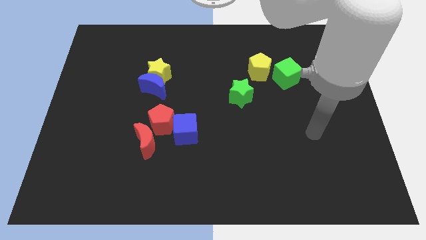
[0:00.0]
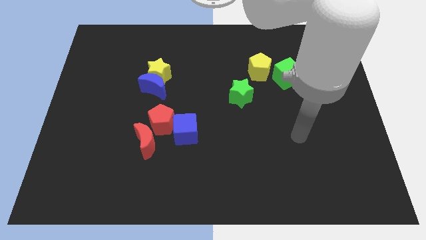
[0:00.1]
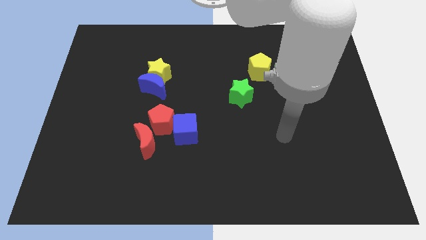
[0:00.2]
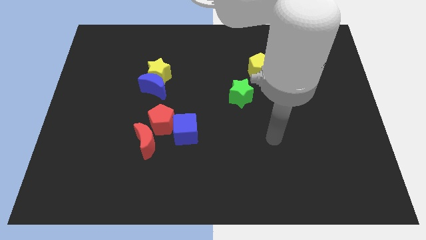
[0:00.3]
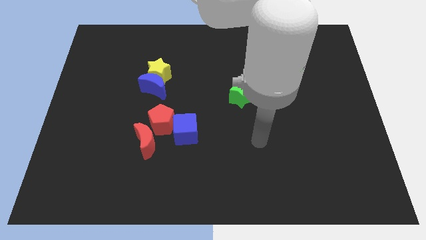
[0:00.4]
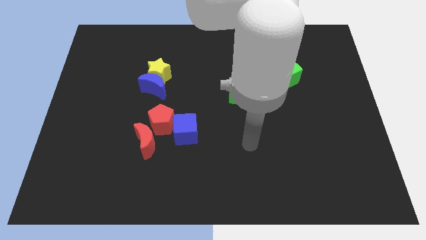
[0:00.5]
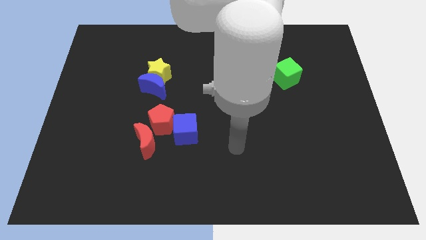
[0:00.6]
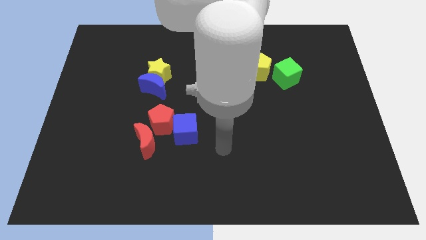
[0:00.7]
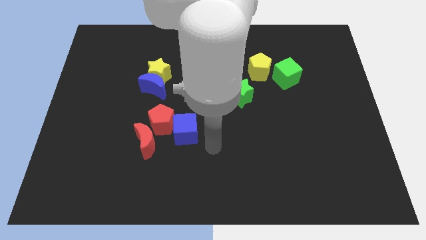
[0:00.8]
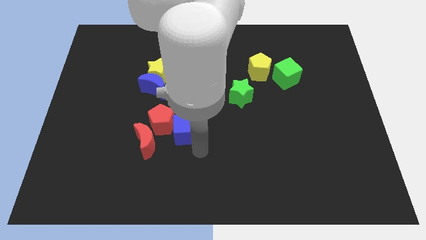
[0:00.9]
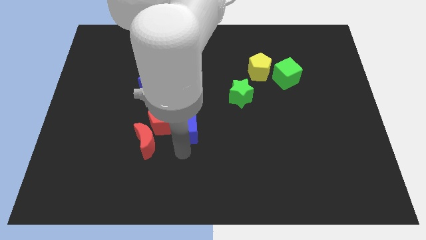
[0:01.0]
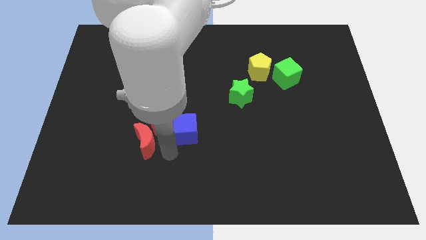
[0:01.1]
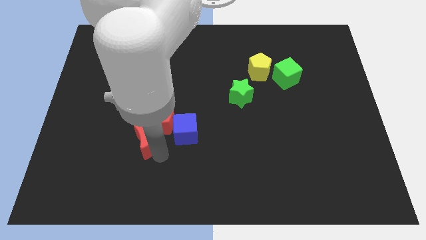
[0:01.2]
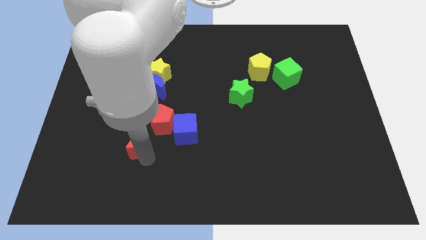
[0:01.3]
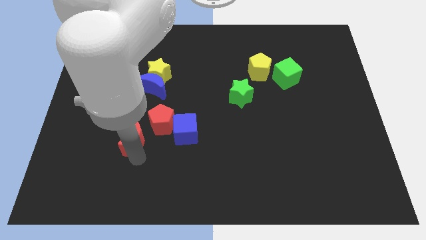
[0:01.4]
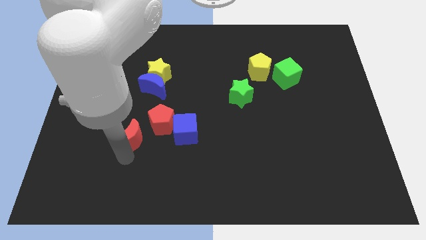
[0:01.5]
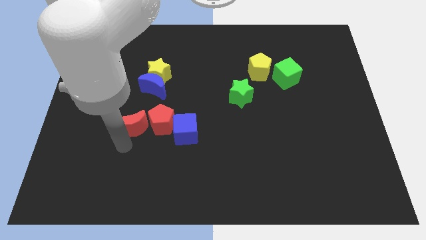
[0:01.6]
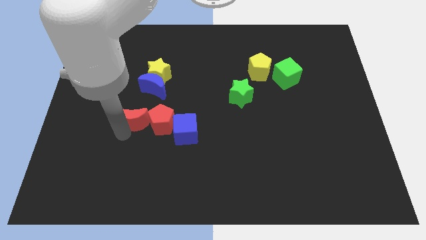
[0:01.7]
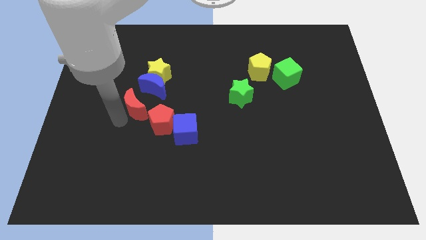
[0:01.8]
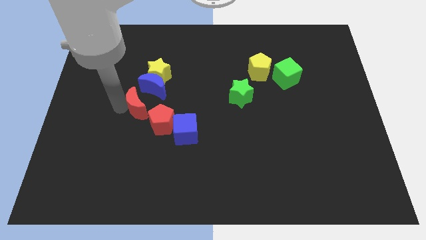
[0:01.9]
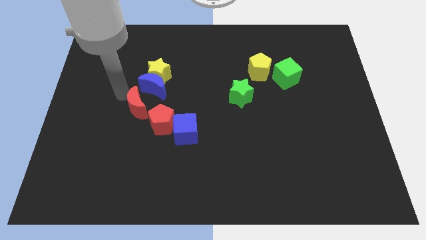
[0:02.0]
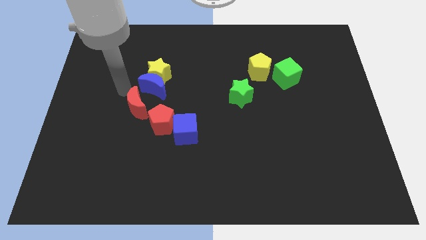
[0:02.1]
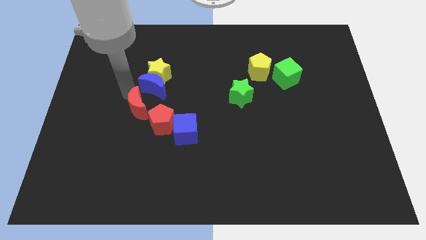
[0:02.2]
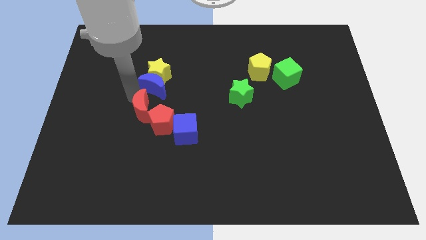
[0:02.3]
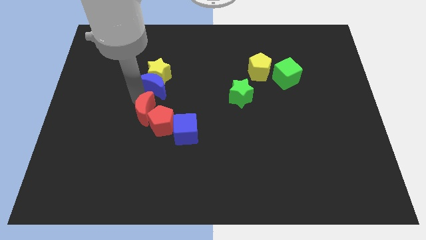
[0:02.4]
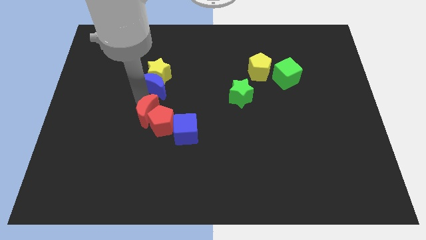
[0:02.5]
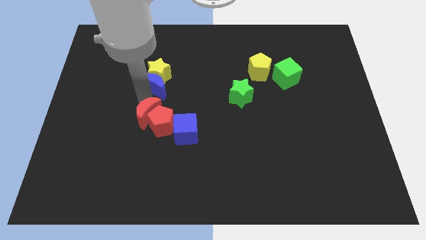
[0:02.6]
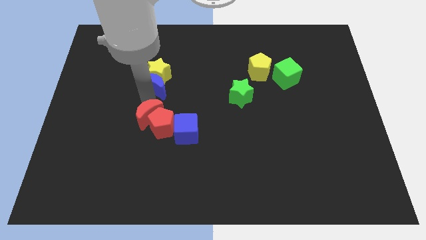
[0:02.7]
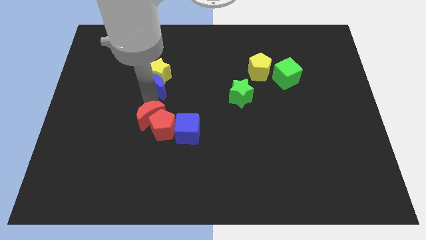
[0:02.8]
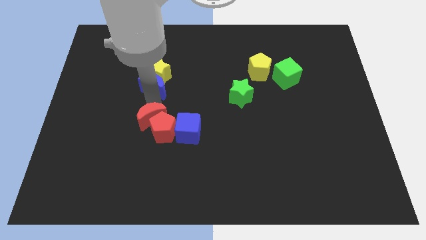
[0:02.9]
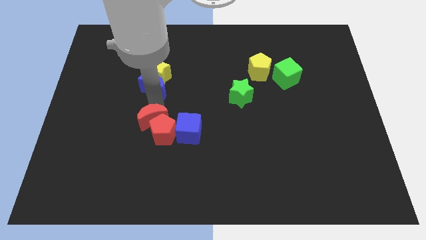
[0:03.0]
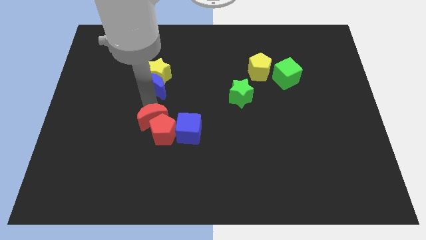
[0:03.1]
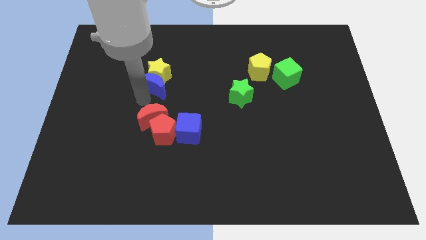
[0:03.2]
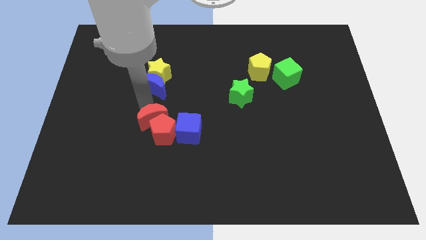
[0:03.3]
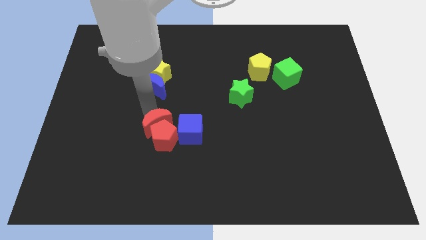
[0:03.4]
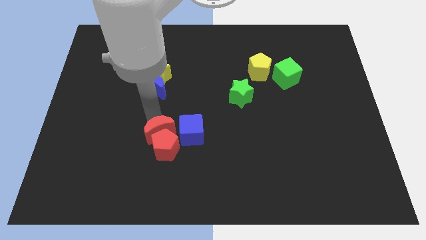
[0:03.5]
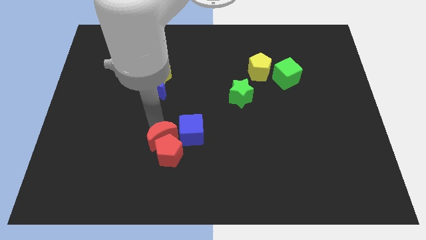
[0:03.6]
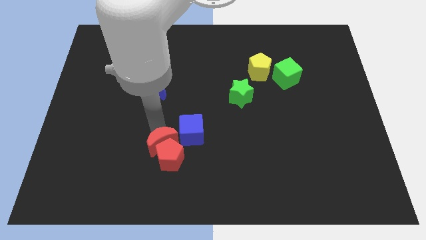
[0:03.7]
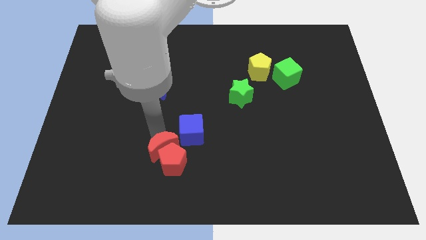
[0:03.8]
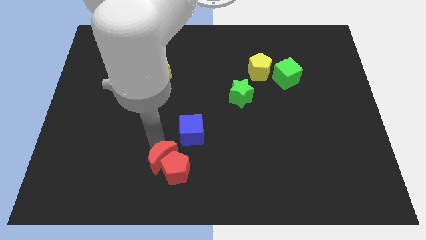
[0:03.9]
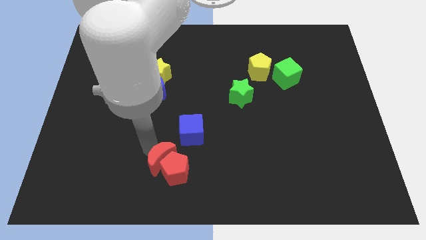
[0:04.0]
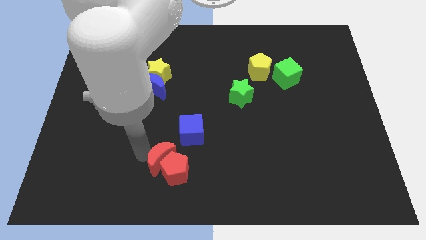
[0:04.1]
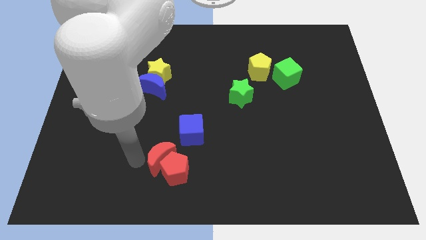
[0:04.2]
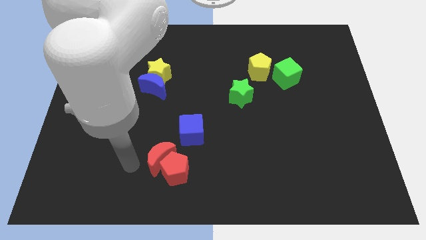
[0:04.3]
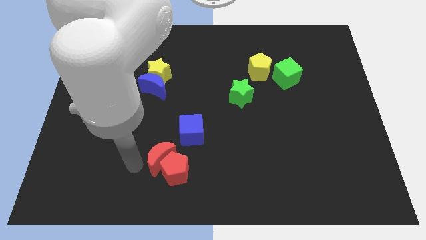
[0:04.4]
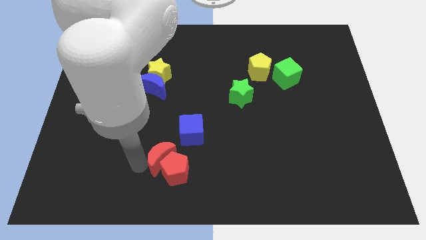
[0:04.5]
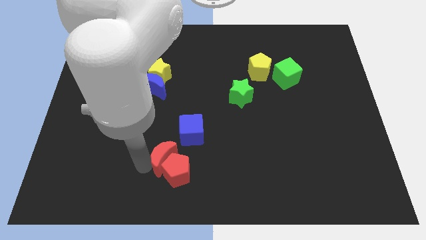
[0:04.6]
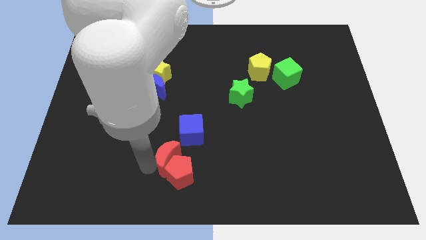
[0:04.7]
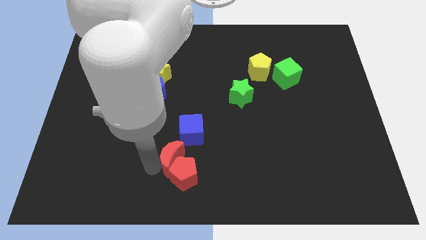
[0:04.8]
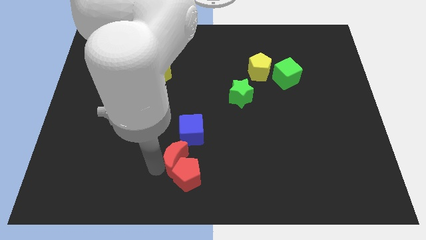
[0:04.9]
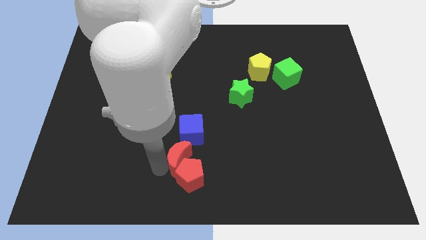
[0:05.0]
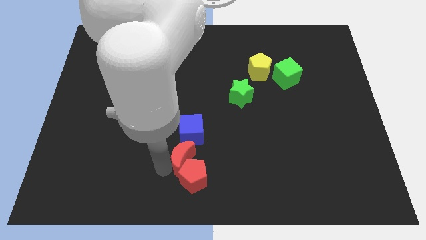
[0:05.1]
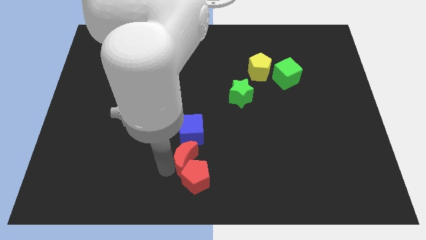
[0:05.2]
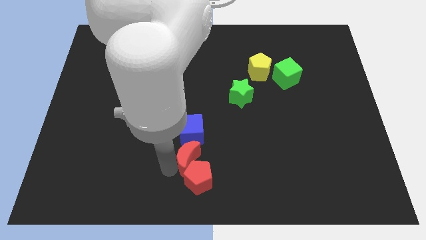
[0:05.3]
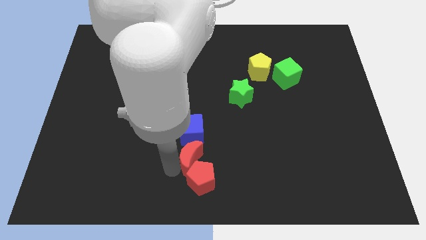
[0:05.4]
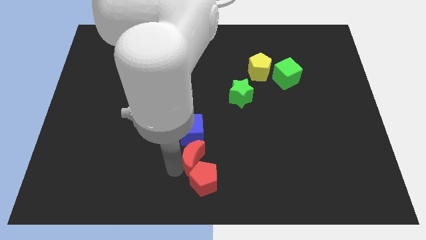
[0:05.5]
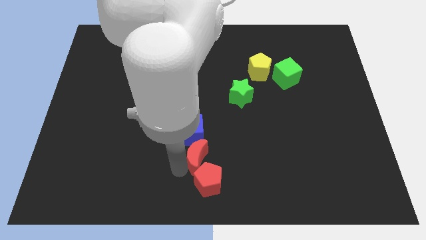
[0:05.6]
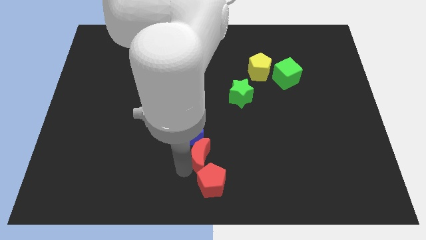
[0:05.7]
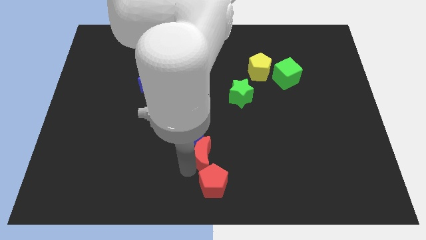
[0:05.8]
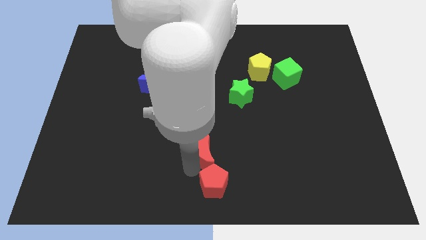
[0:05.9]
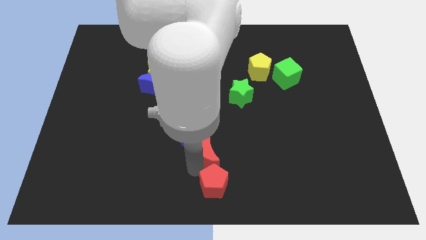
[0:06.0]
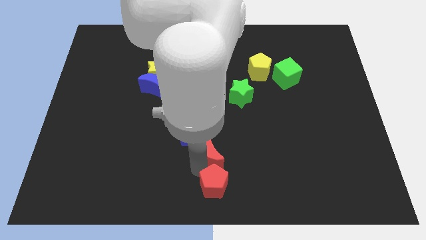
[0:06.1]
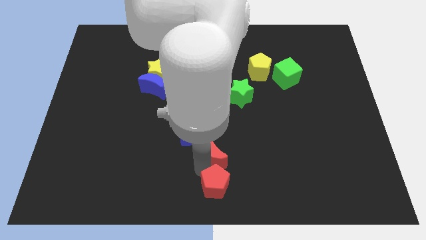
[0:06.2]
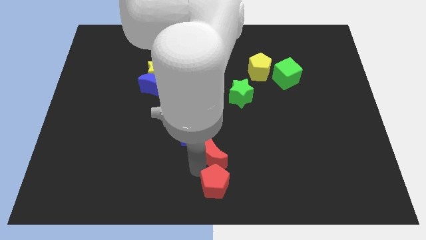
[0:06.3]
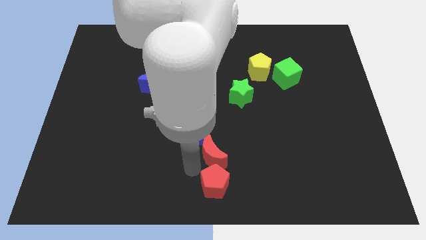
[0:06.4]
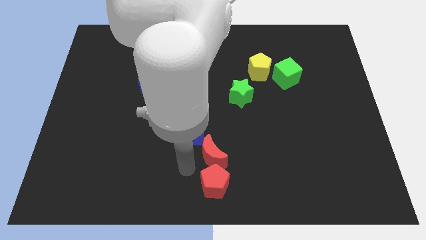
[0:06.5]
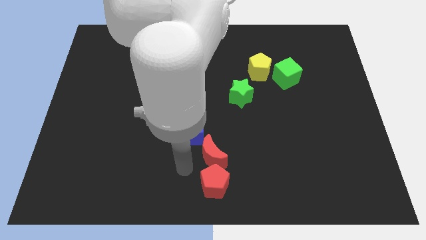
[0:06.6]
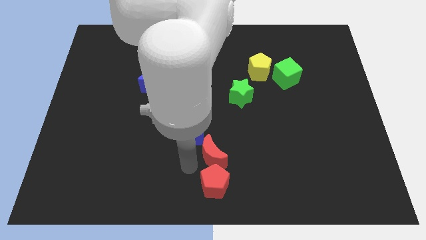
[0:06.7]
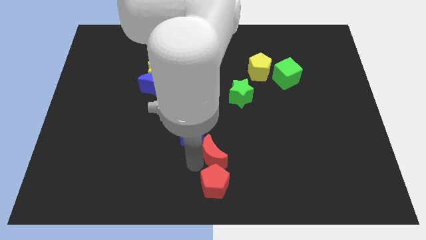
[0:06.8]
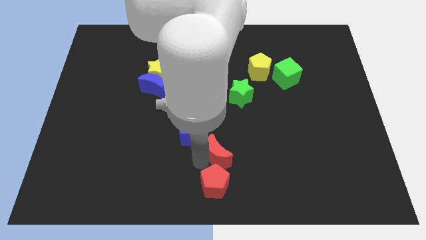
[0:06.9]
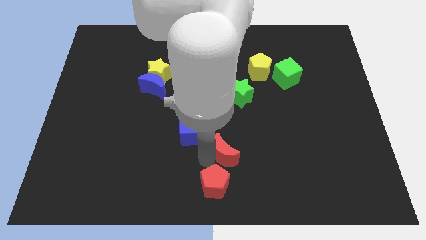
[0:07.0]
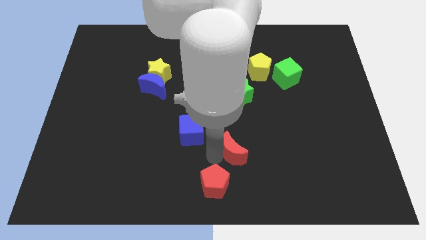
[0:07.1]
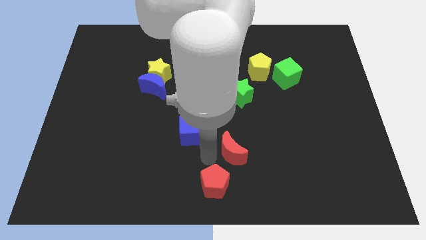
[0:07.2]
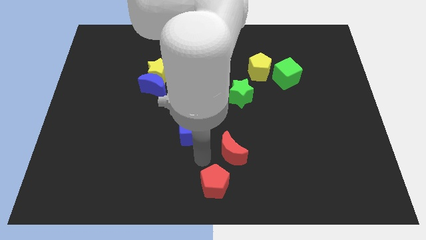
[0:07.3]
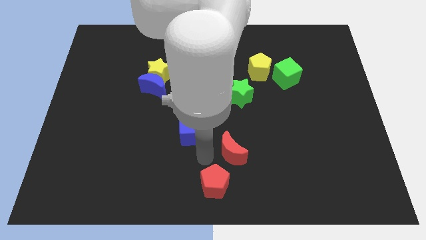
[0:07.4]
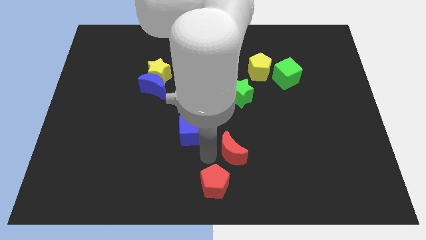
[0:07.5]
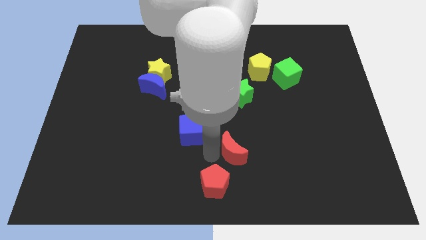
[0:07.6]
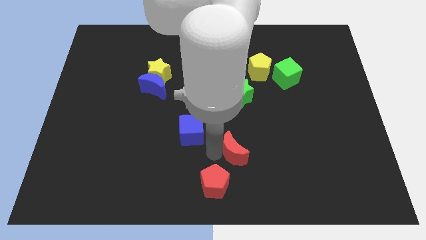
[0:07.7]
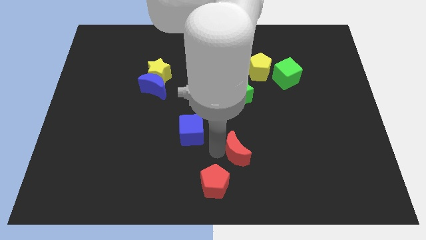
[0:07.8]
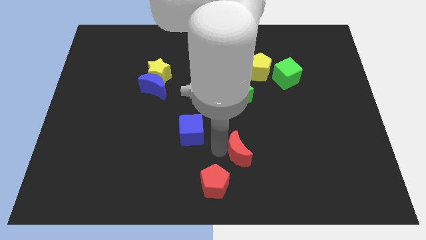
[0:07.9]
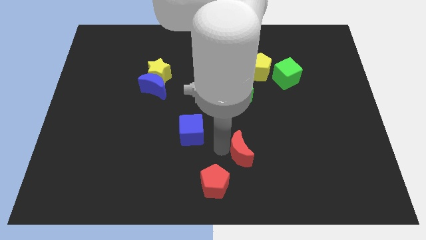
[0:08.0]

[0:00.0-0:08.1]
slide the red moon right
